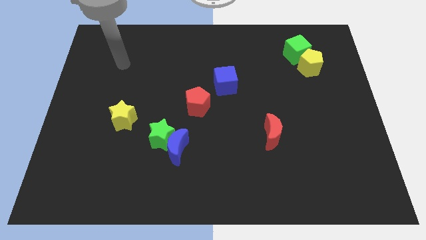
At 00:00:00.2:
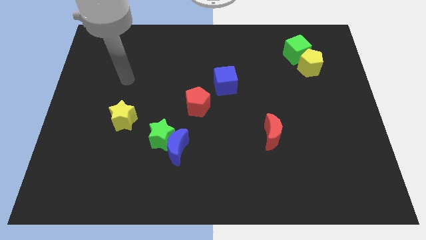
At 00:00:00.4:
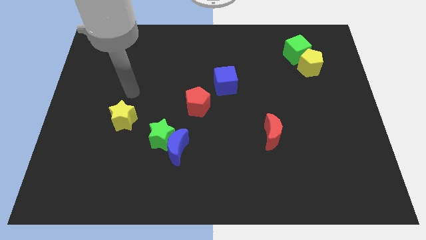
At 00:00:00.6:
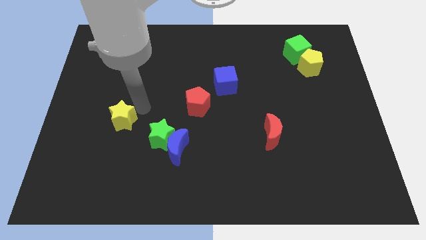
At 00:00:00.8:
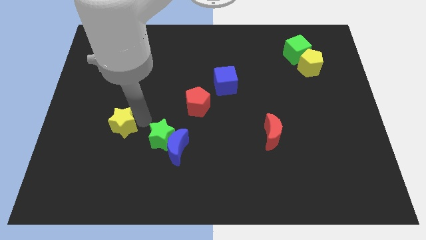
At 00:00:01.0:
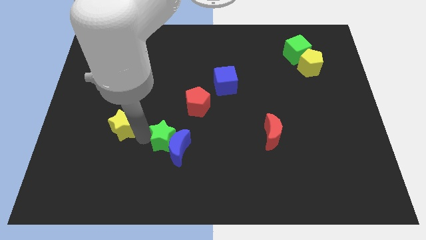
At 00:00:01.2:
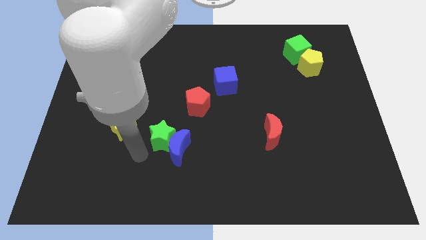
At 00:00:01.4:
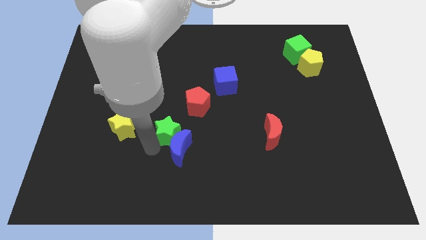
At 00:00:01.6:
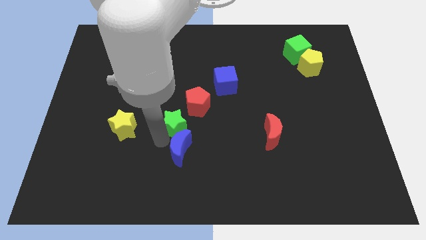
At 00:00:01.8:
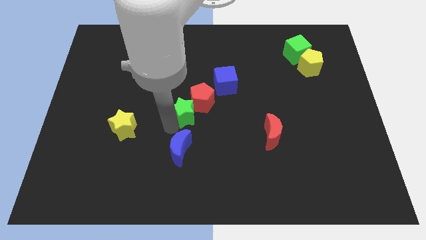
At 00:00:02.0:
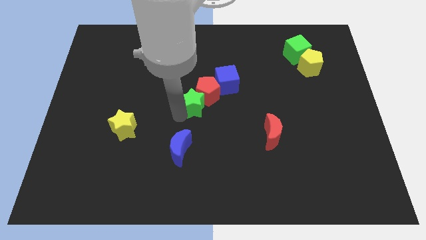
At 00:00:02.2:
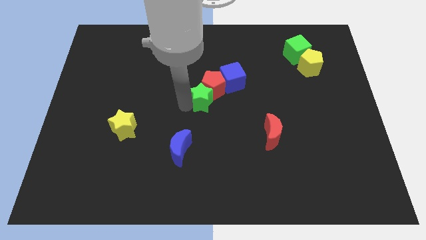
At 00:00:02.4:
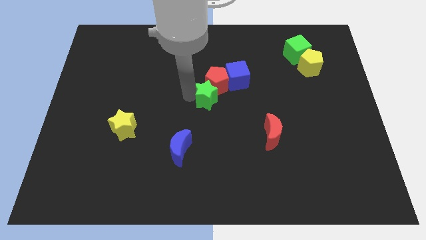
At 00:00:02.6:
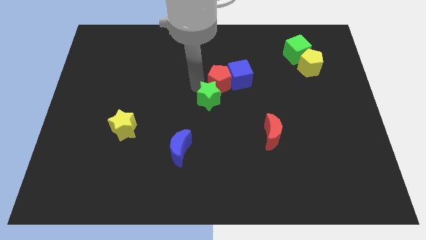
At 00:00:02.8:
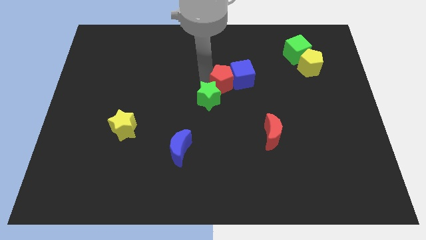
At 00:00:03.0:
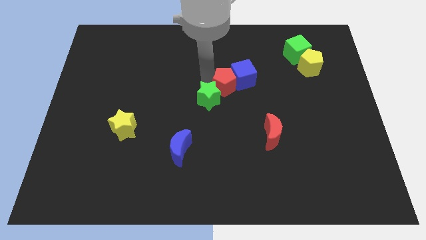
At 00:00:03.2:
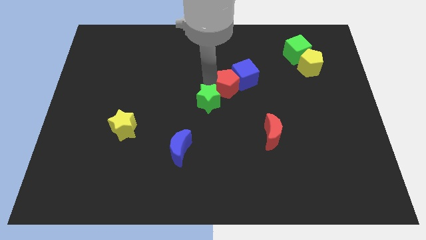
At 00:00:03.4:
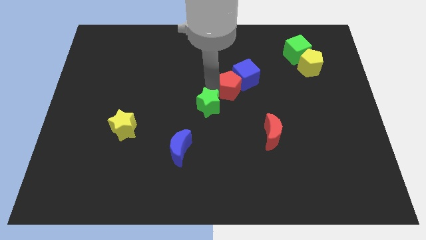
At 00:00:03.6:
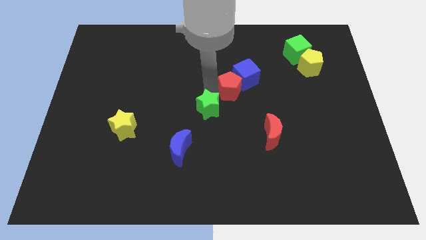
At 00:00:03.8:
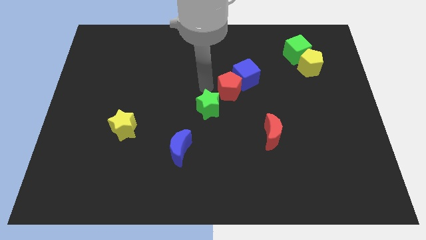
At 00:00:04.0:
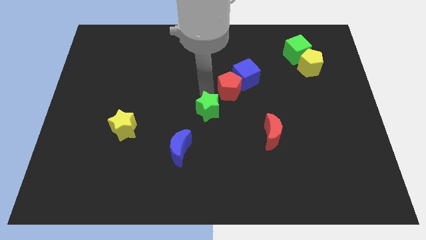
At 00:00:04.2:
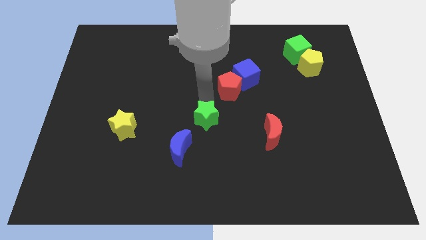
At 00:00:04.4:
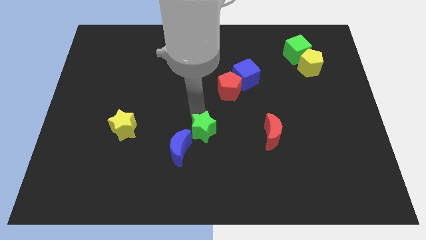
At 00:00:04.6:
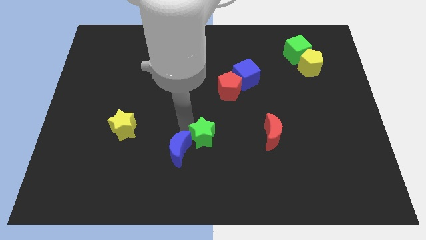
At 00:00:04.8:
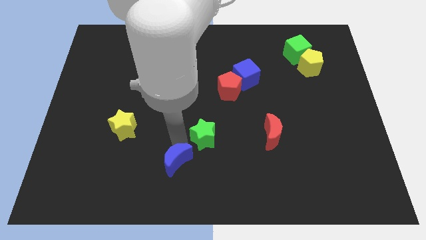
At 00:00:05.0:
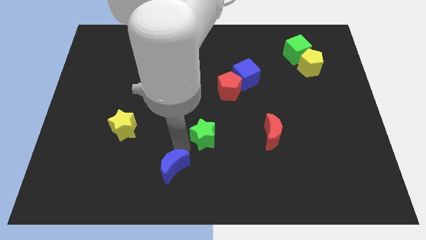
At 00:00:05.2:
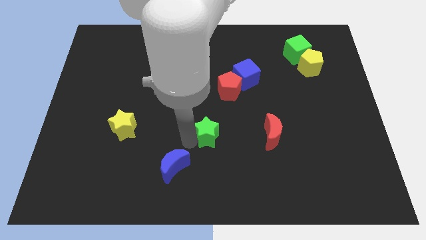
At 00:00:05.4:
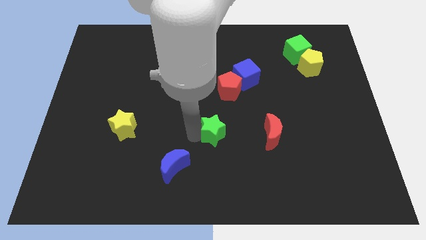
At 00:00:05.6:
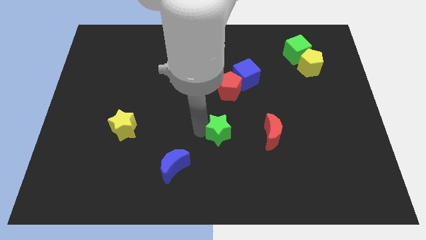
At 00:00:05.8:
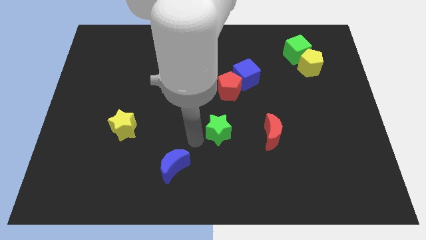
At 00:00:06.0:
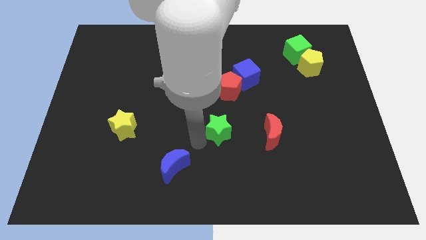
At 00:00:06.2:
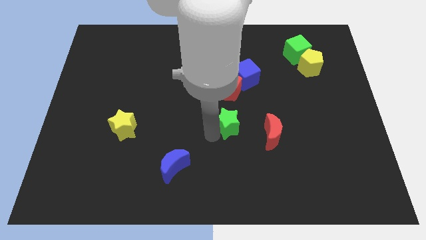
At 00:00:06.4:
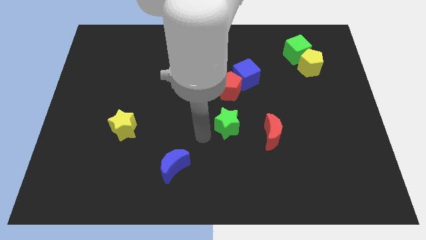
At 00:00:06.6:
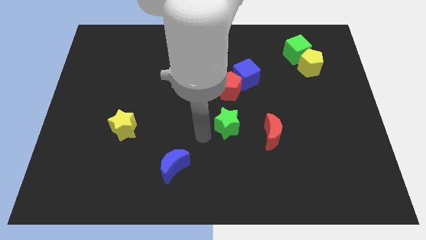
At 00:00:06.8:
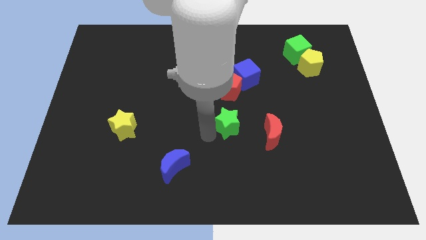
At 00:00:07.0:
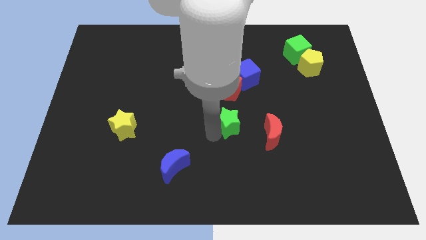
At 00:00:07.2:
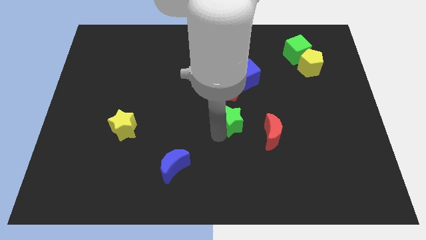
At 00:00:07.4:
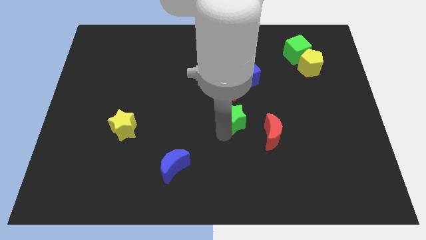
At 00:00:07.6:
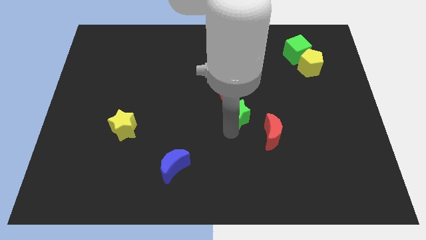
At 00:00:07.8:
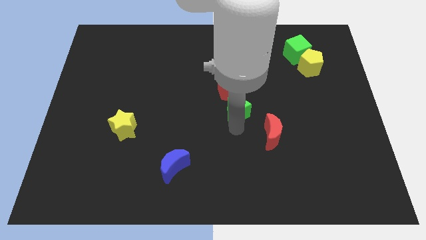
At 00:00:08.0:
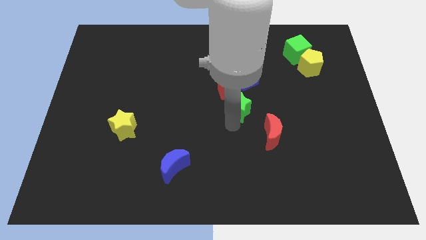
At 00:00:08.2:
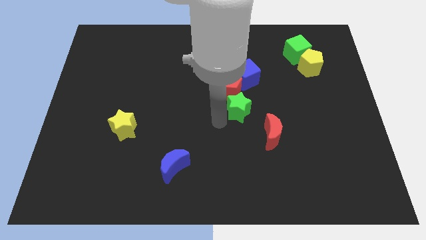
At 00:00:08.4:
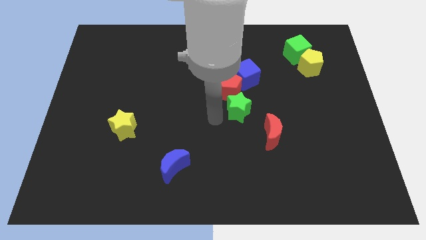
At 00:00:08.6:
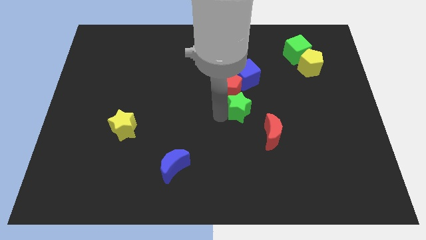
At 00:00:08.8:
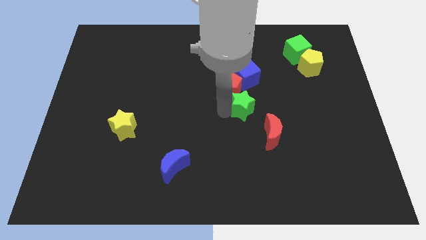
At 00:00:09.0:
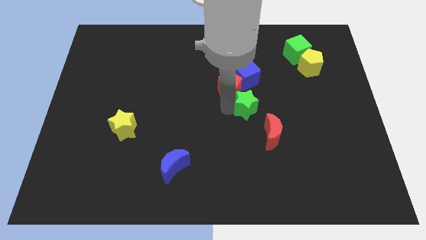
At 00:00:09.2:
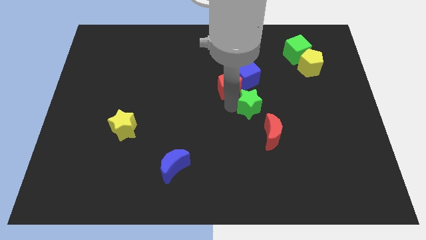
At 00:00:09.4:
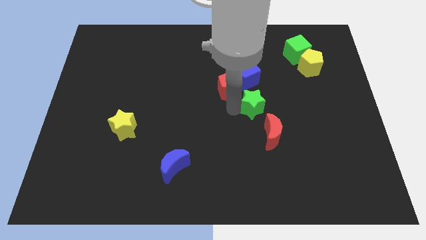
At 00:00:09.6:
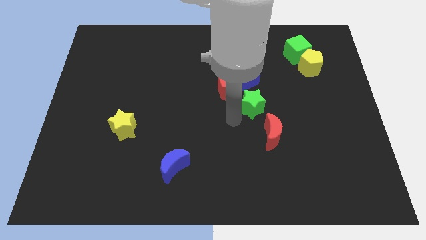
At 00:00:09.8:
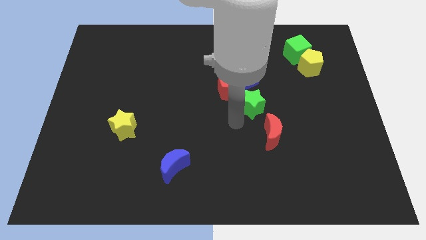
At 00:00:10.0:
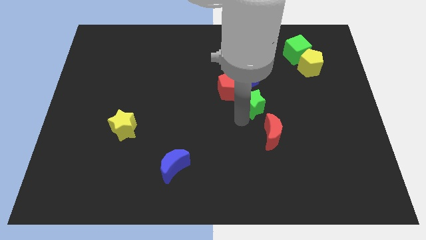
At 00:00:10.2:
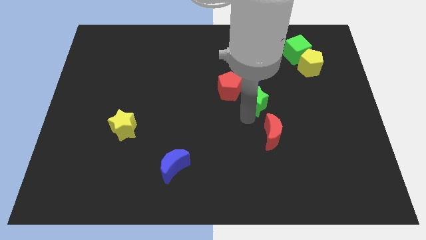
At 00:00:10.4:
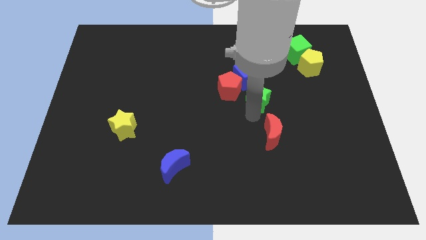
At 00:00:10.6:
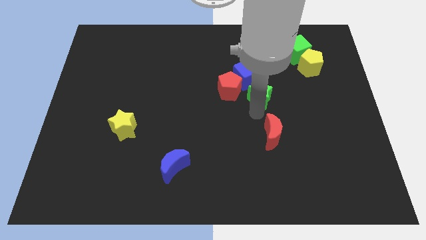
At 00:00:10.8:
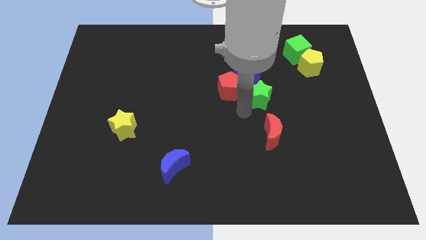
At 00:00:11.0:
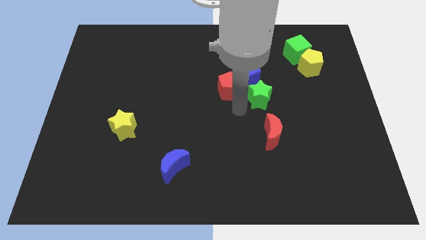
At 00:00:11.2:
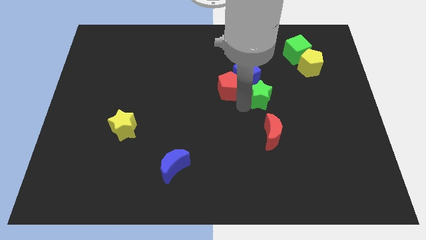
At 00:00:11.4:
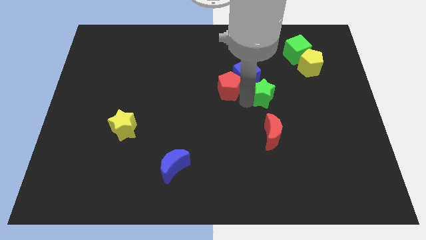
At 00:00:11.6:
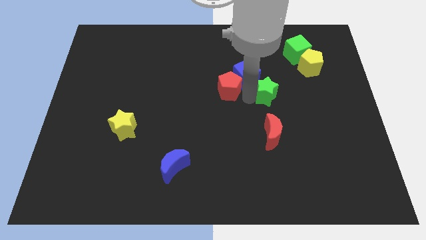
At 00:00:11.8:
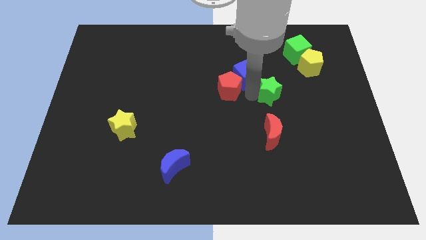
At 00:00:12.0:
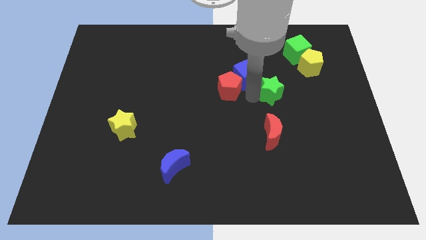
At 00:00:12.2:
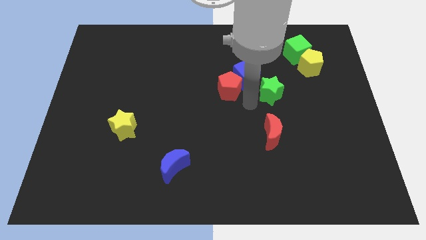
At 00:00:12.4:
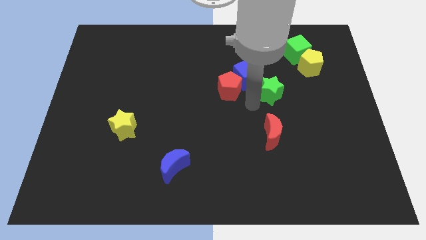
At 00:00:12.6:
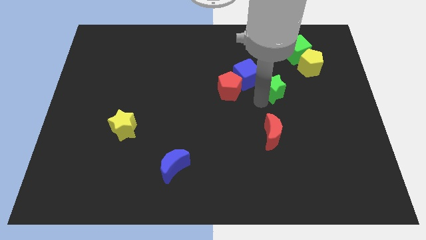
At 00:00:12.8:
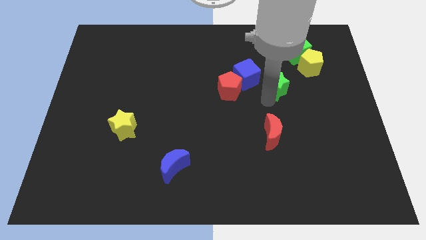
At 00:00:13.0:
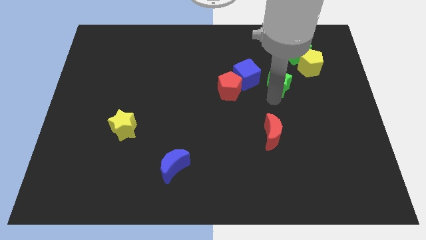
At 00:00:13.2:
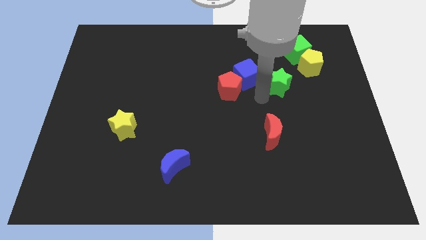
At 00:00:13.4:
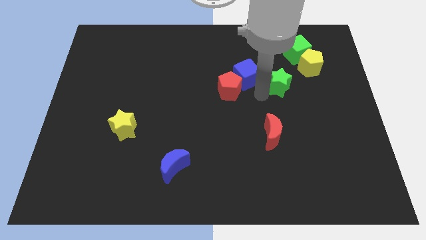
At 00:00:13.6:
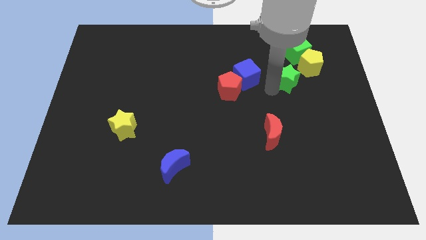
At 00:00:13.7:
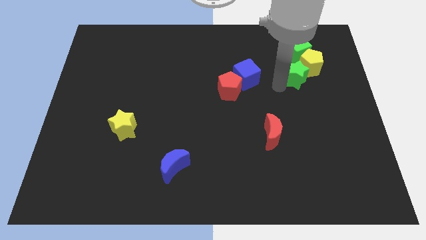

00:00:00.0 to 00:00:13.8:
push the green star to the yellow pentagon

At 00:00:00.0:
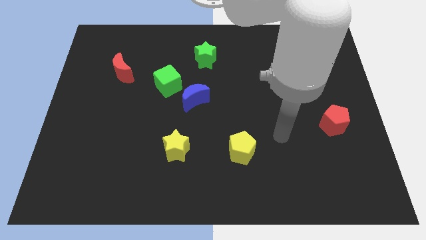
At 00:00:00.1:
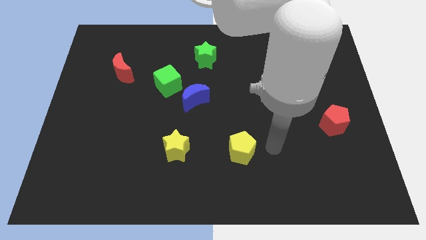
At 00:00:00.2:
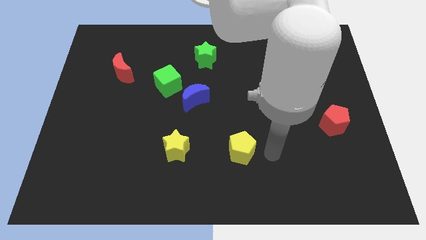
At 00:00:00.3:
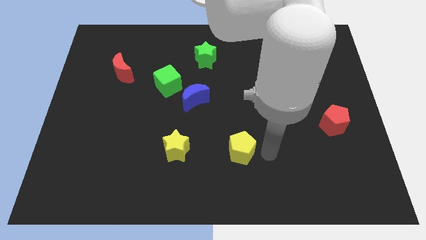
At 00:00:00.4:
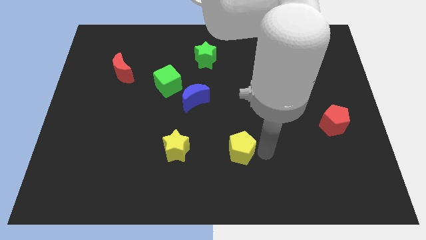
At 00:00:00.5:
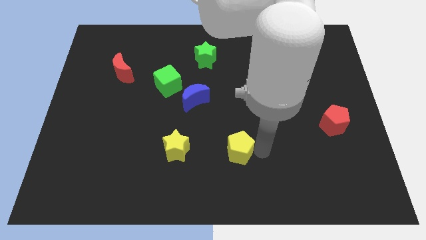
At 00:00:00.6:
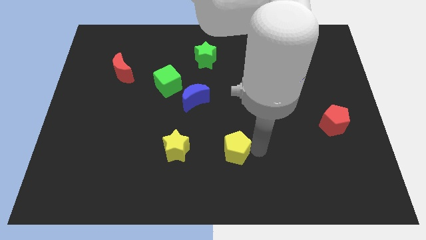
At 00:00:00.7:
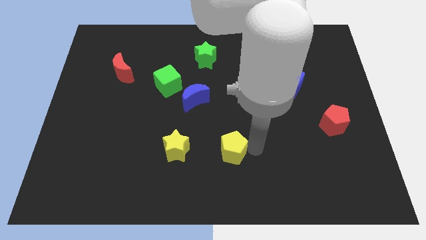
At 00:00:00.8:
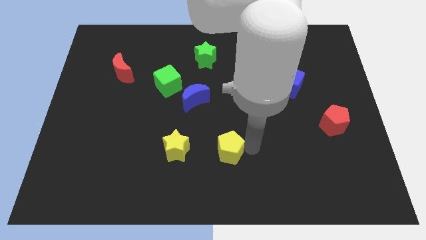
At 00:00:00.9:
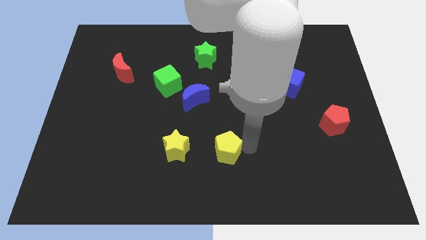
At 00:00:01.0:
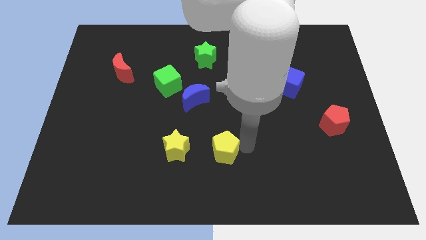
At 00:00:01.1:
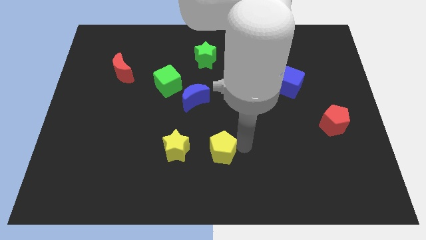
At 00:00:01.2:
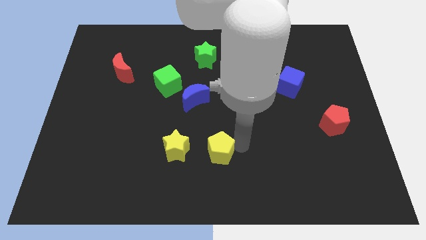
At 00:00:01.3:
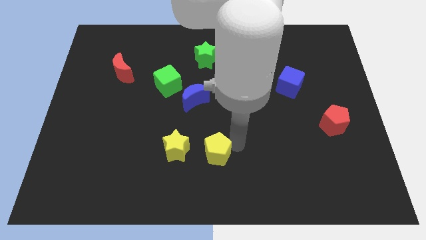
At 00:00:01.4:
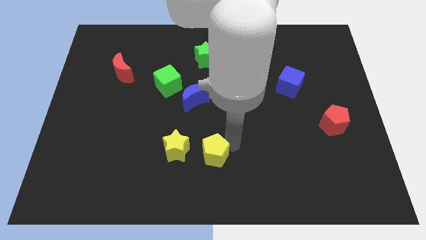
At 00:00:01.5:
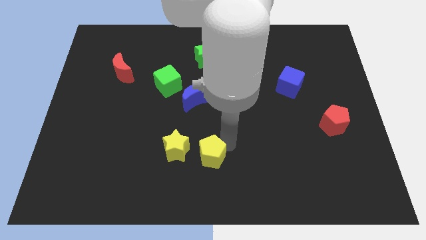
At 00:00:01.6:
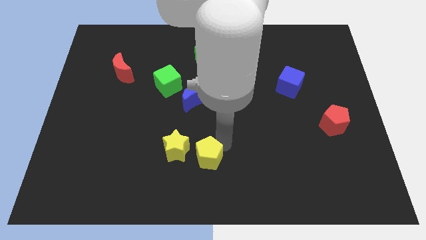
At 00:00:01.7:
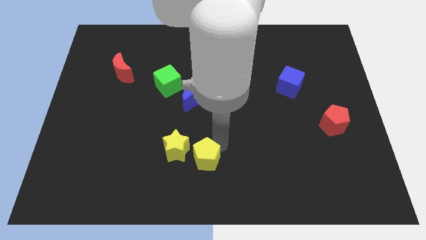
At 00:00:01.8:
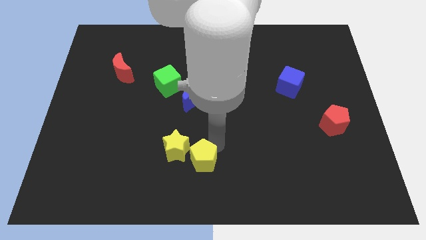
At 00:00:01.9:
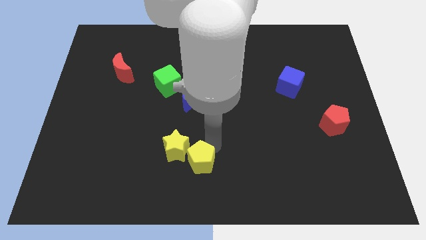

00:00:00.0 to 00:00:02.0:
push the yellow pentagon towards the yellow star
